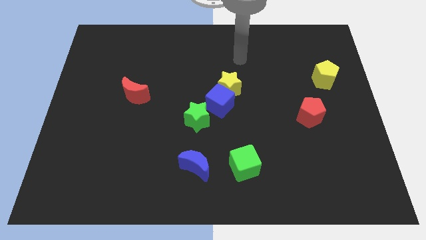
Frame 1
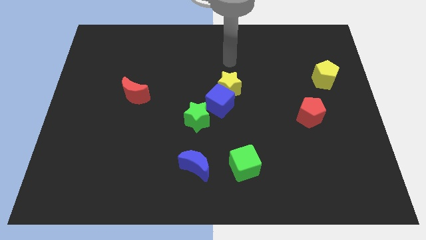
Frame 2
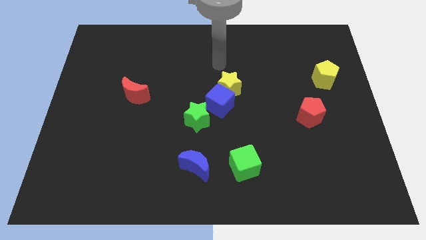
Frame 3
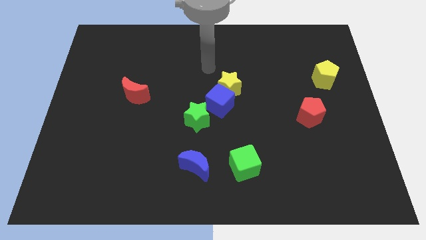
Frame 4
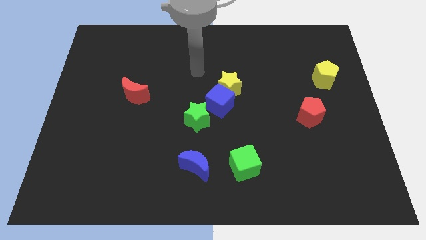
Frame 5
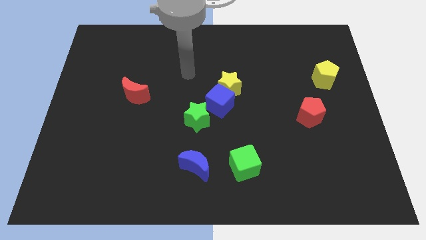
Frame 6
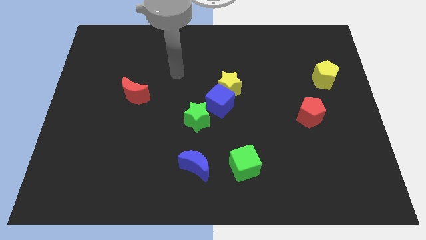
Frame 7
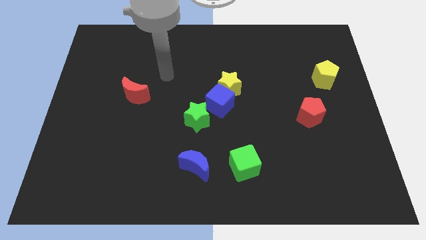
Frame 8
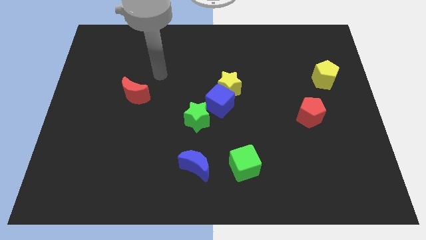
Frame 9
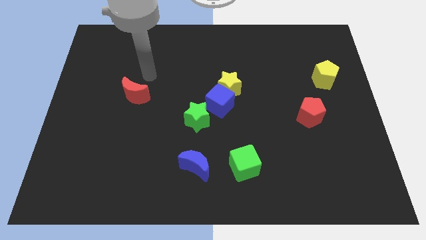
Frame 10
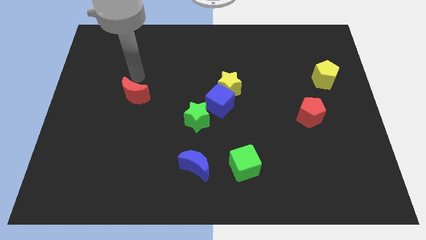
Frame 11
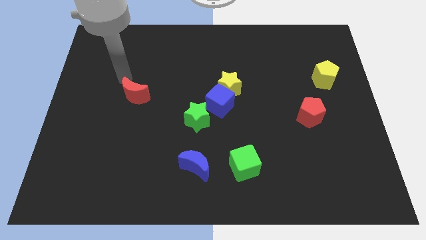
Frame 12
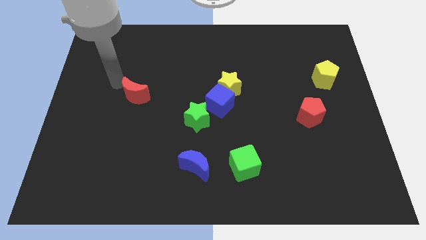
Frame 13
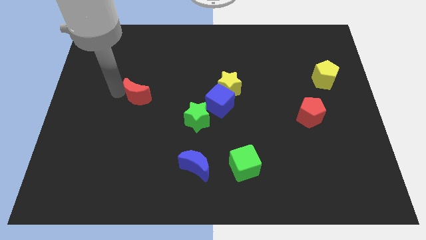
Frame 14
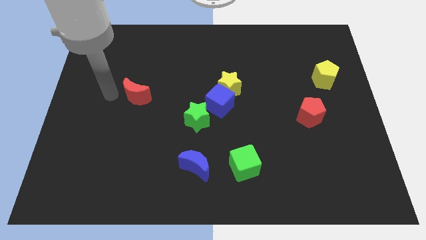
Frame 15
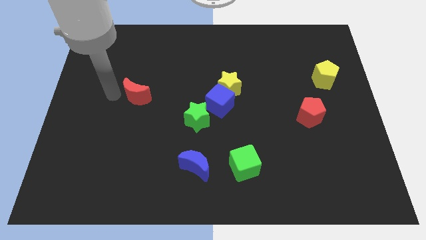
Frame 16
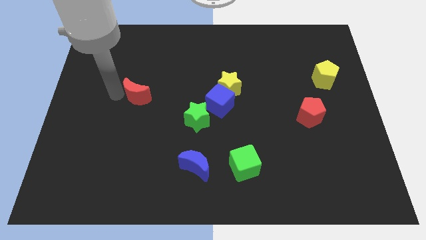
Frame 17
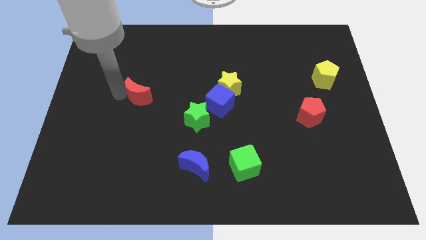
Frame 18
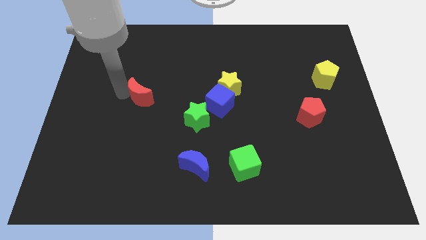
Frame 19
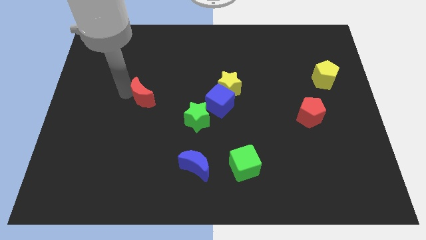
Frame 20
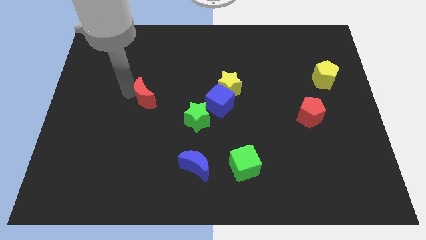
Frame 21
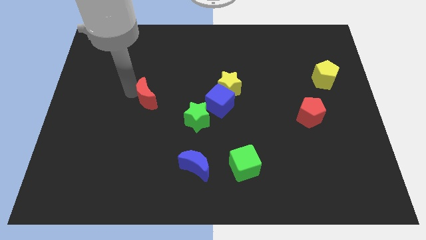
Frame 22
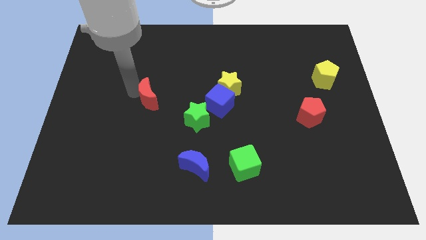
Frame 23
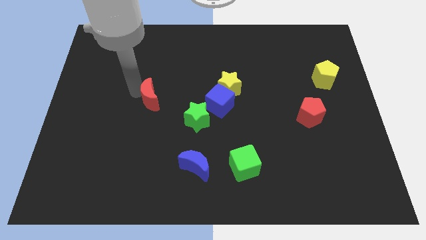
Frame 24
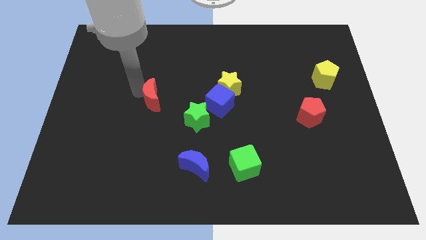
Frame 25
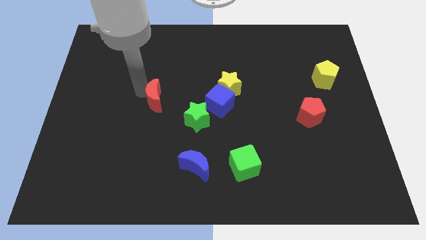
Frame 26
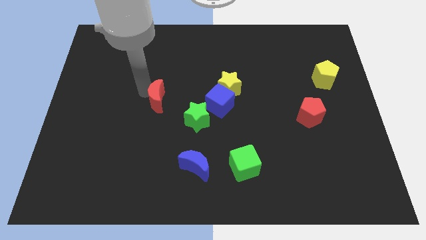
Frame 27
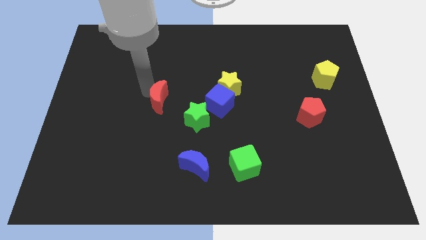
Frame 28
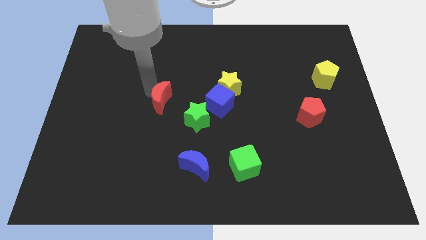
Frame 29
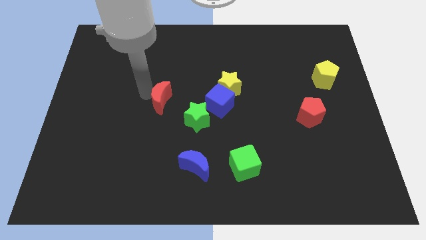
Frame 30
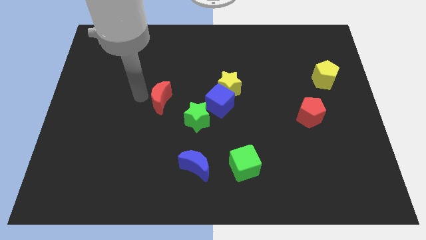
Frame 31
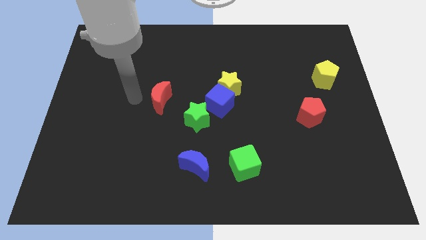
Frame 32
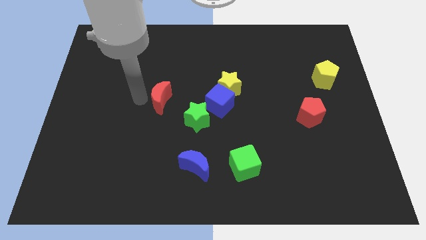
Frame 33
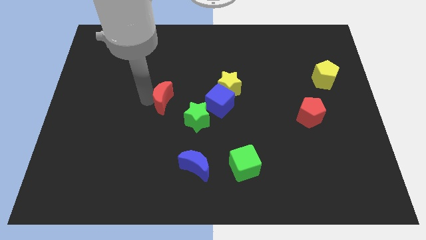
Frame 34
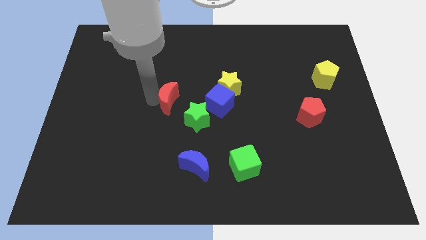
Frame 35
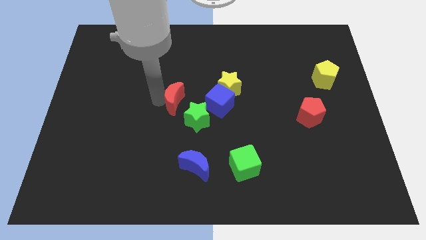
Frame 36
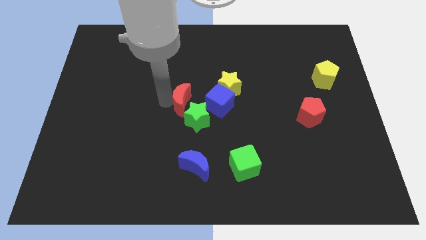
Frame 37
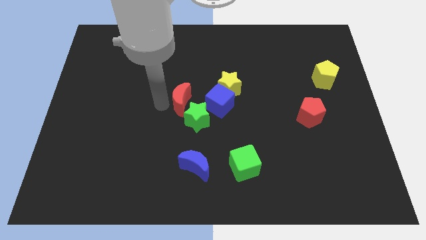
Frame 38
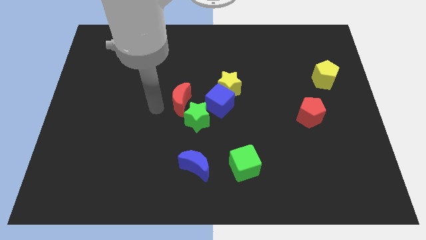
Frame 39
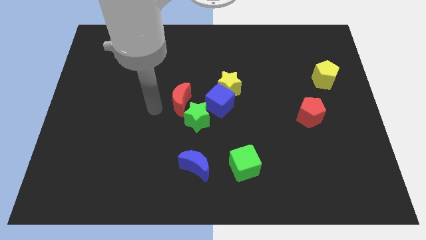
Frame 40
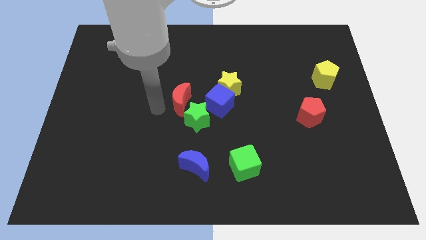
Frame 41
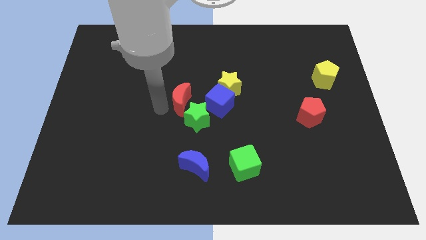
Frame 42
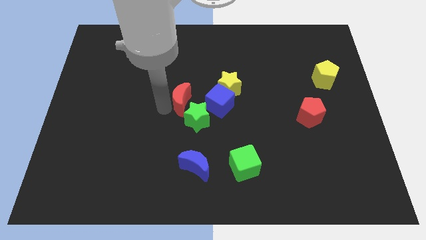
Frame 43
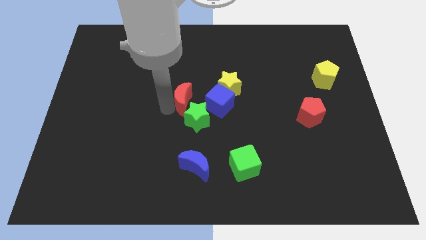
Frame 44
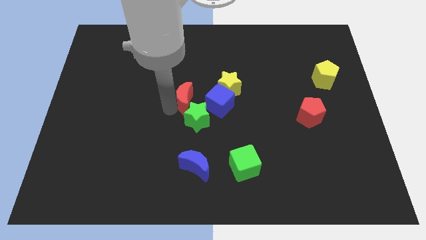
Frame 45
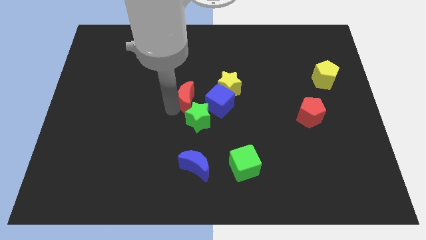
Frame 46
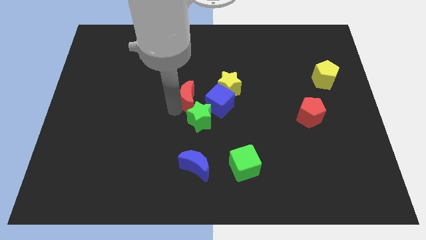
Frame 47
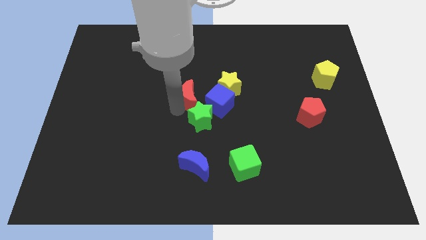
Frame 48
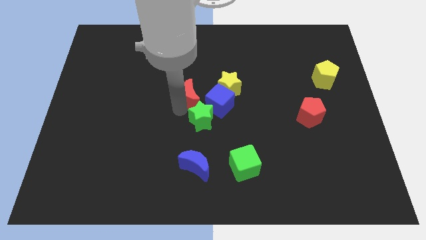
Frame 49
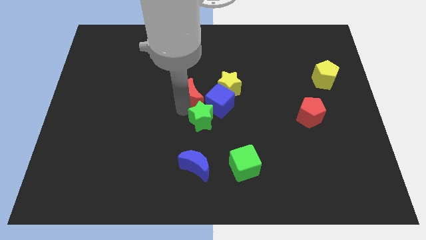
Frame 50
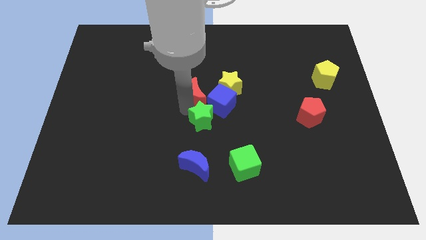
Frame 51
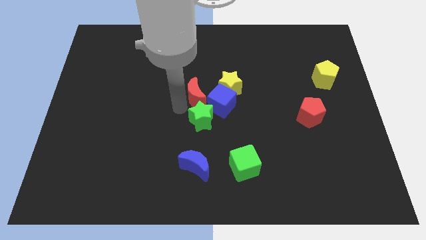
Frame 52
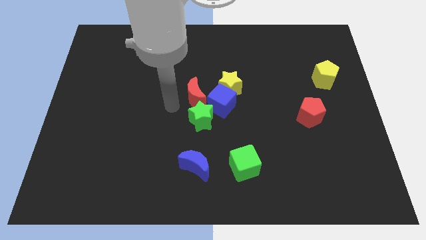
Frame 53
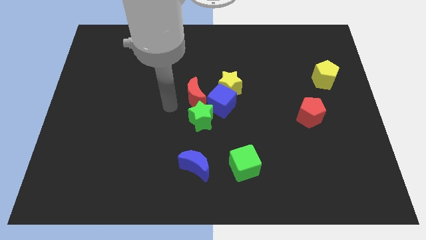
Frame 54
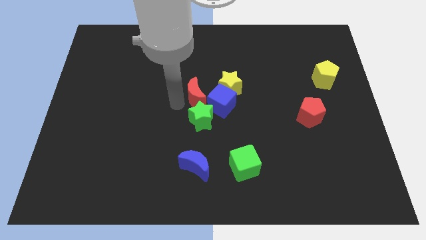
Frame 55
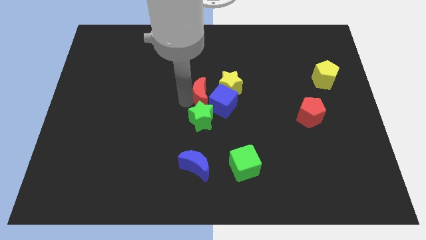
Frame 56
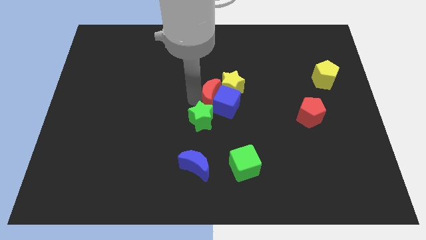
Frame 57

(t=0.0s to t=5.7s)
push the red moon next to the yellow star

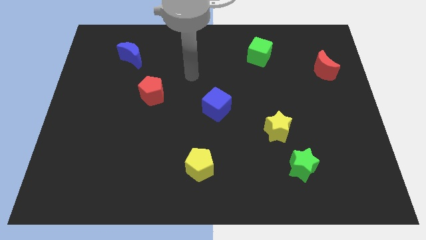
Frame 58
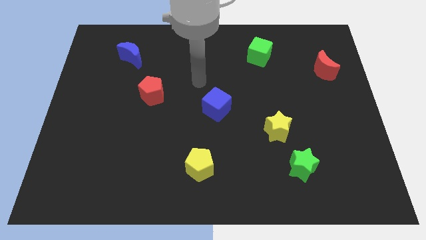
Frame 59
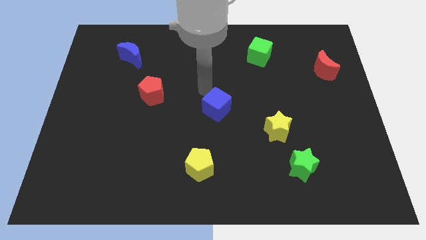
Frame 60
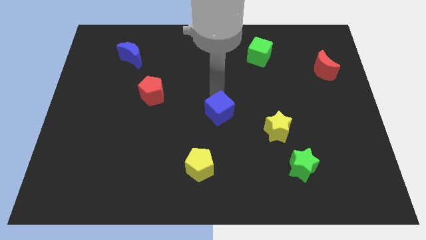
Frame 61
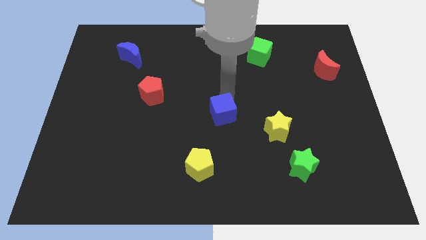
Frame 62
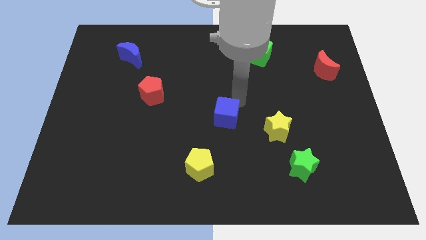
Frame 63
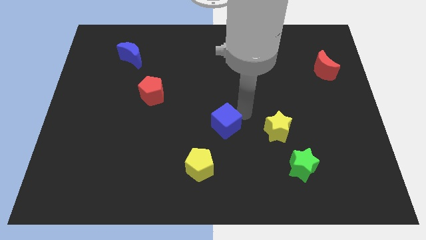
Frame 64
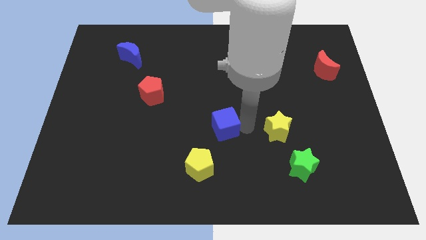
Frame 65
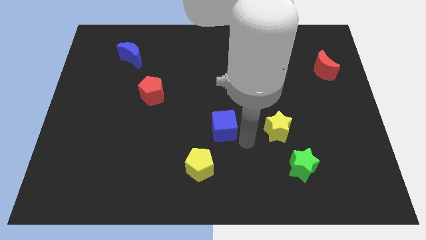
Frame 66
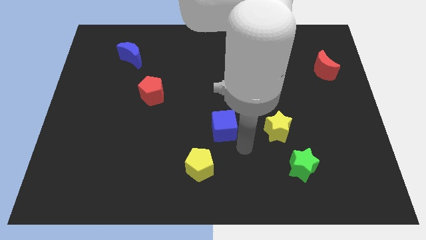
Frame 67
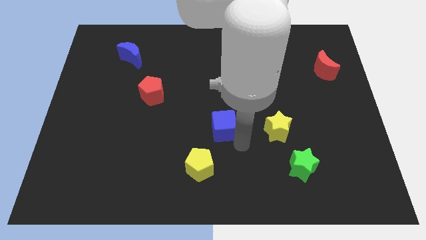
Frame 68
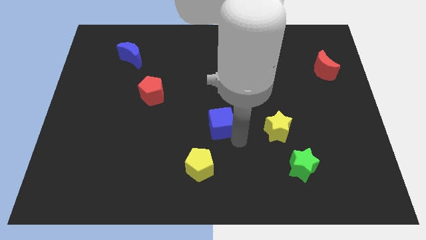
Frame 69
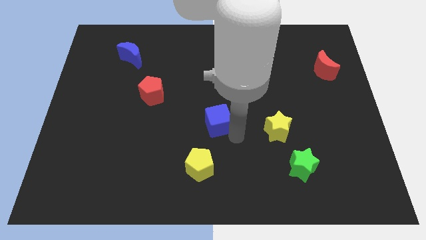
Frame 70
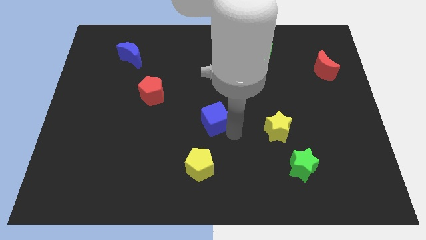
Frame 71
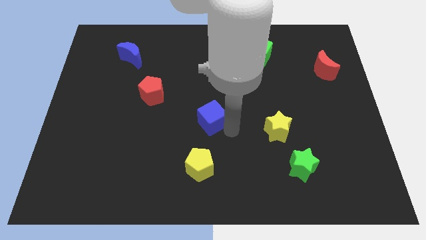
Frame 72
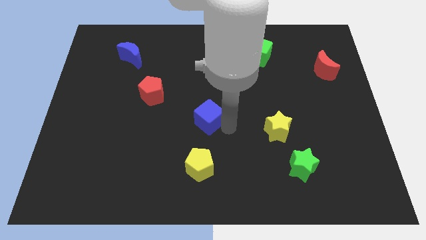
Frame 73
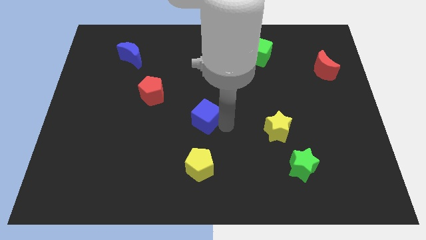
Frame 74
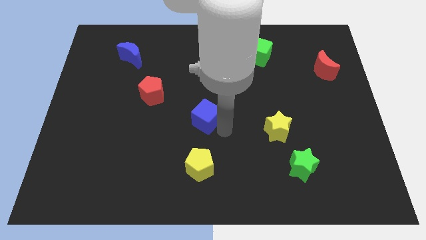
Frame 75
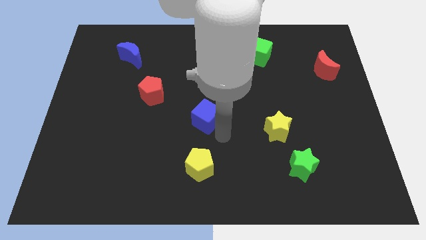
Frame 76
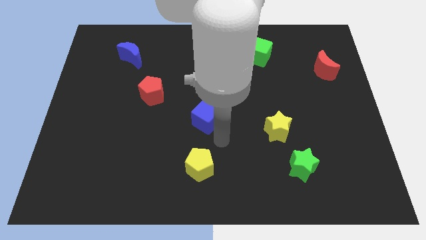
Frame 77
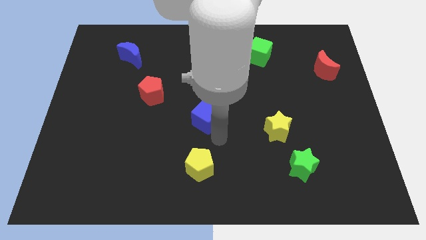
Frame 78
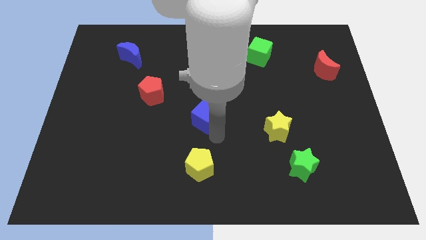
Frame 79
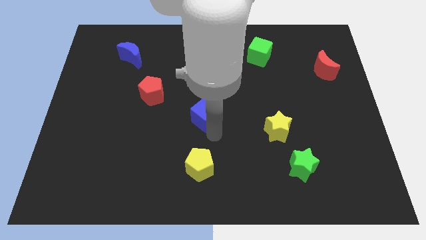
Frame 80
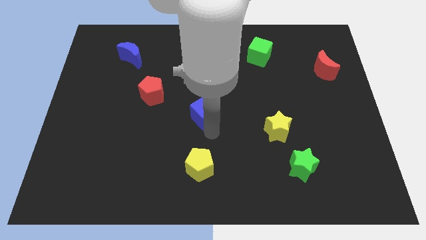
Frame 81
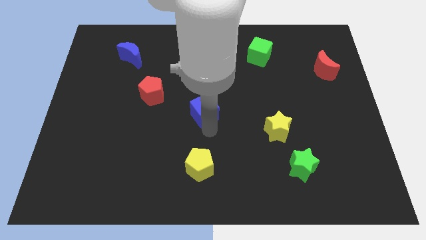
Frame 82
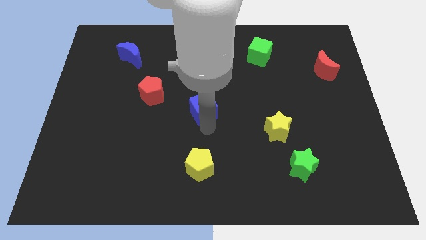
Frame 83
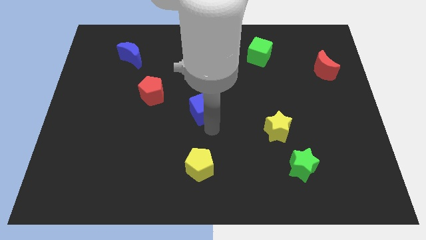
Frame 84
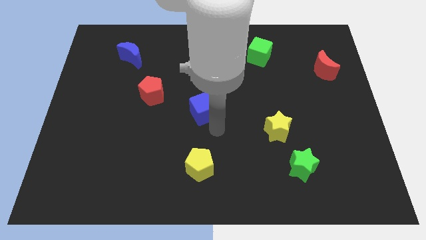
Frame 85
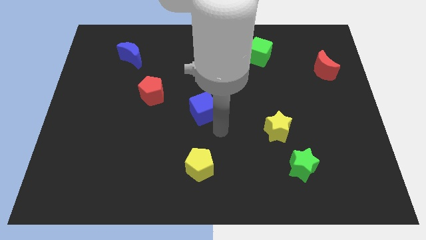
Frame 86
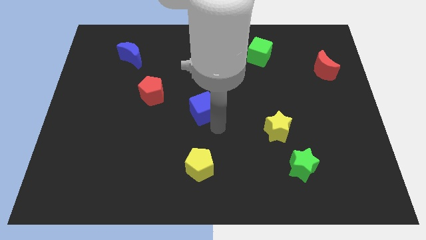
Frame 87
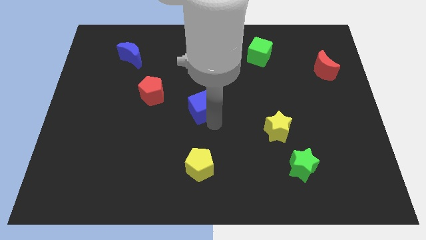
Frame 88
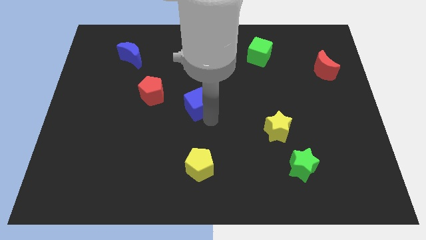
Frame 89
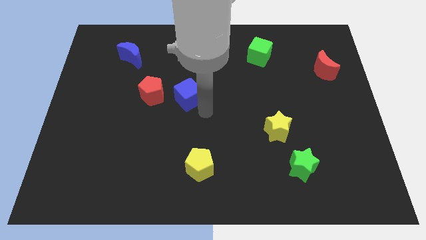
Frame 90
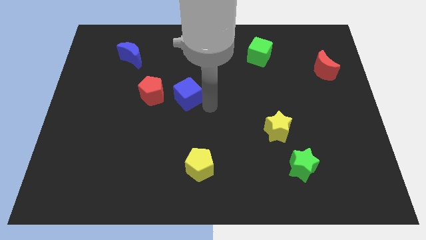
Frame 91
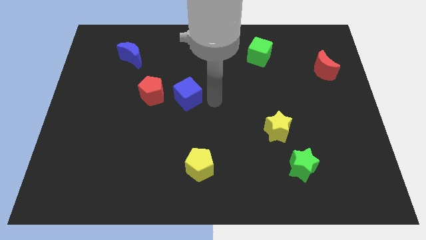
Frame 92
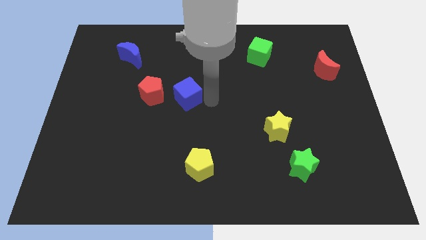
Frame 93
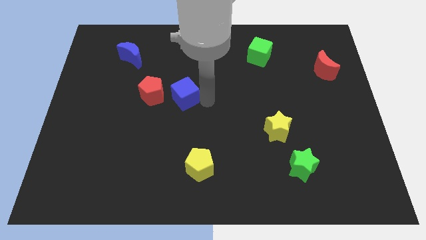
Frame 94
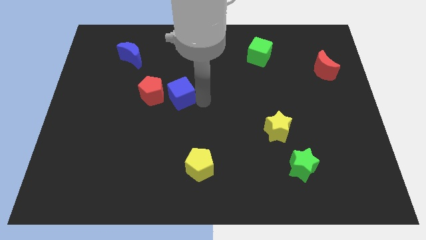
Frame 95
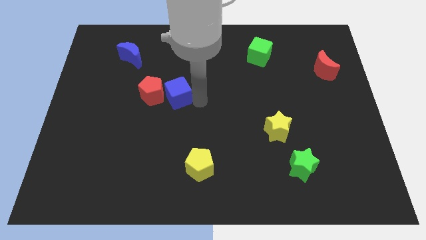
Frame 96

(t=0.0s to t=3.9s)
move the blue cube next to the red pentagon
